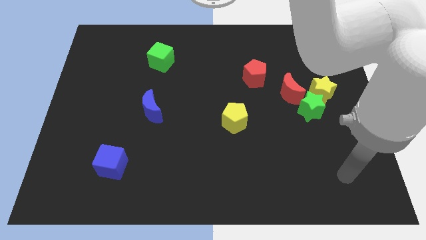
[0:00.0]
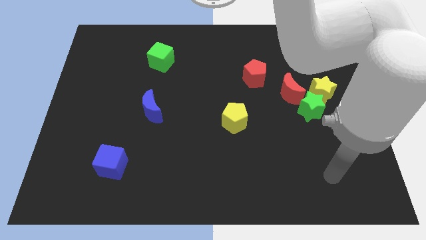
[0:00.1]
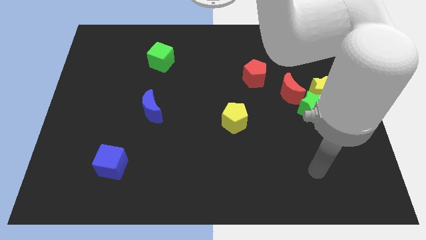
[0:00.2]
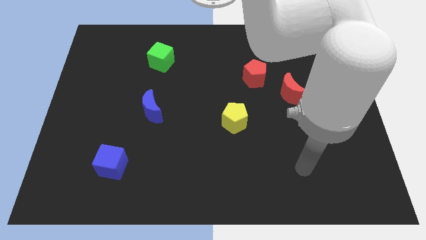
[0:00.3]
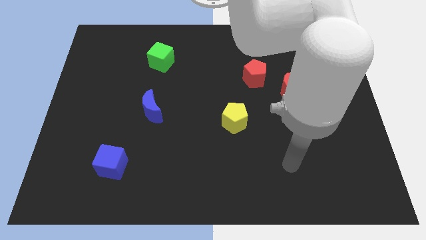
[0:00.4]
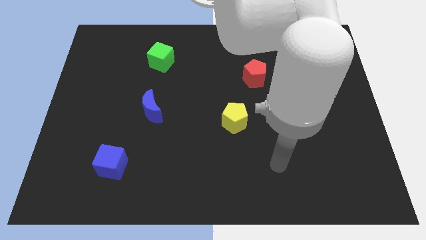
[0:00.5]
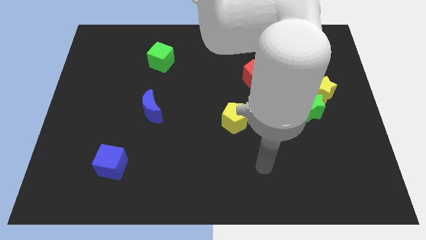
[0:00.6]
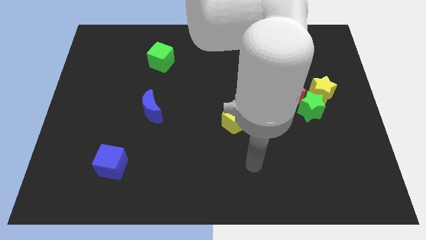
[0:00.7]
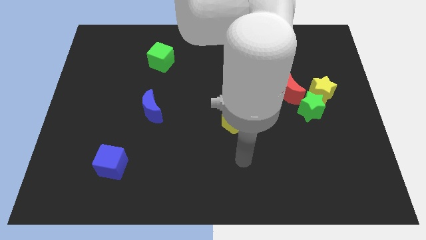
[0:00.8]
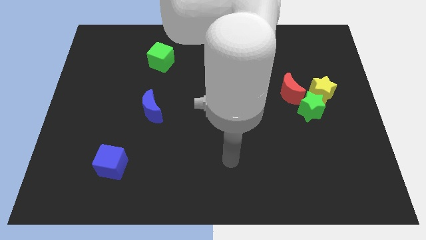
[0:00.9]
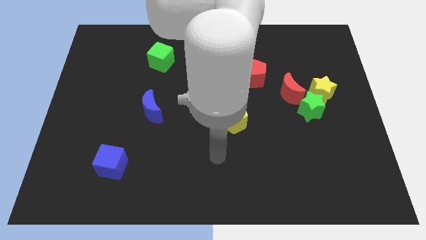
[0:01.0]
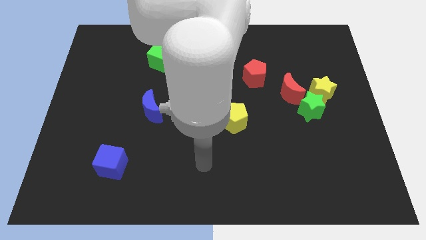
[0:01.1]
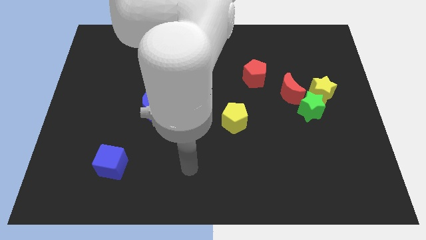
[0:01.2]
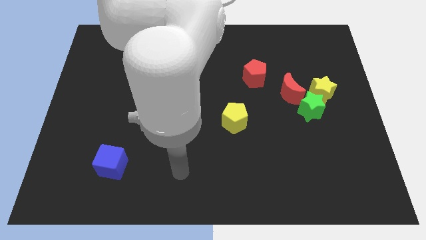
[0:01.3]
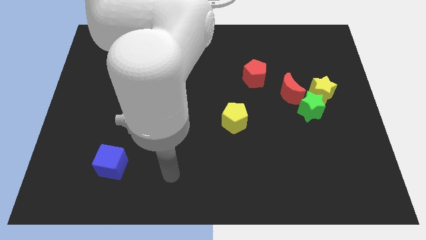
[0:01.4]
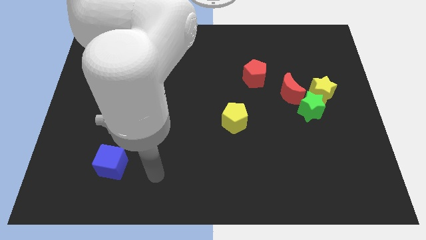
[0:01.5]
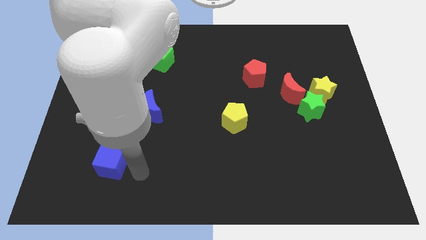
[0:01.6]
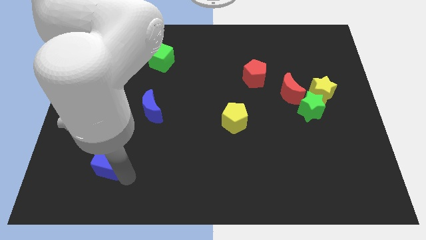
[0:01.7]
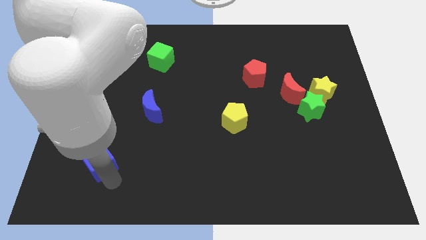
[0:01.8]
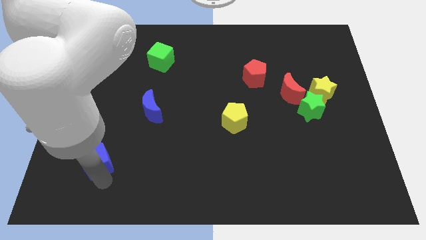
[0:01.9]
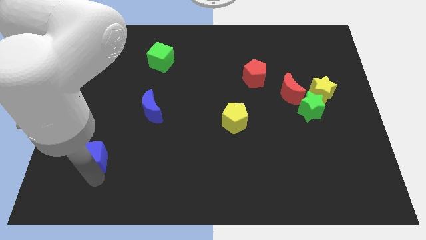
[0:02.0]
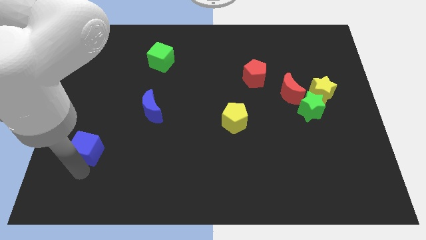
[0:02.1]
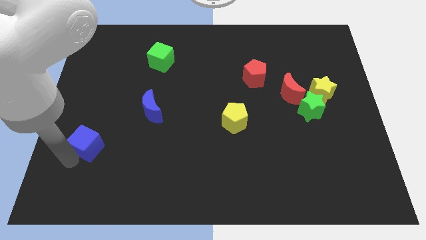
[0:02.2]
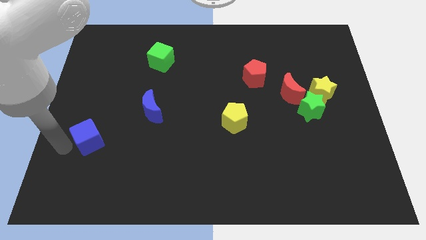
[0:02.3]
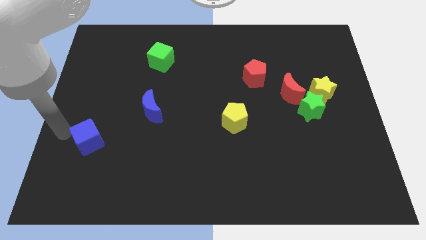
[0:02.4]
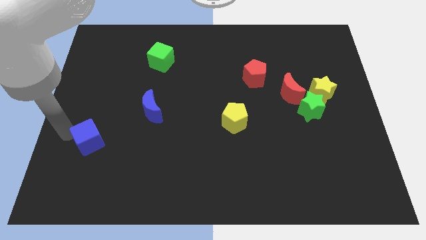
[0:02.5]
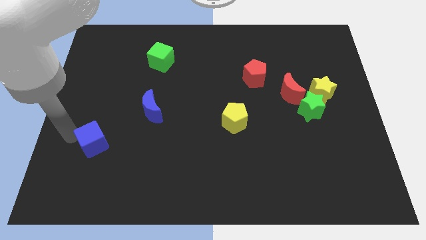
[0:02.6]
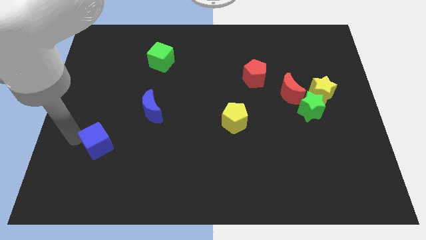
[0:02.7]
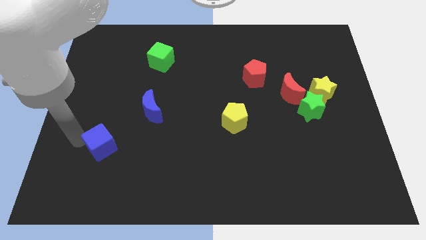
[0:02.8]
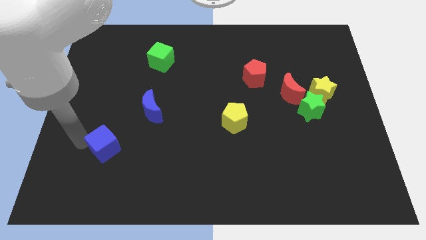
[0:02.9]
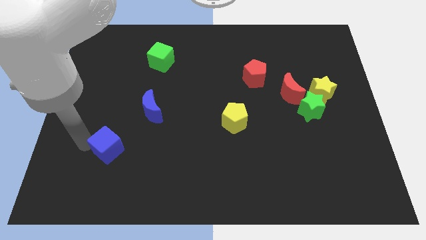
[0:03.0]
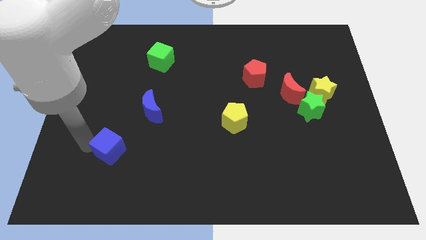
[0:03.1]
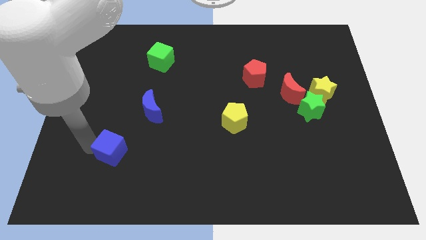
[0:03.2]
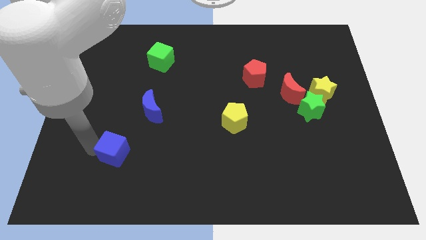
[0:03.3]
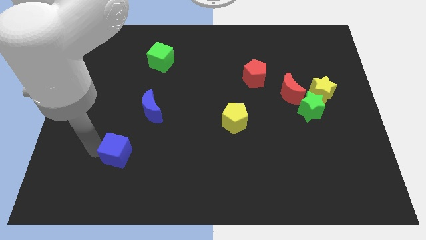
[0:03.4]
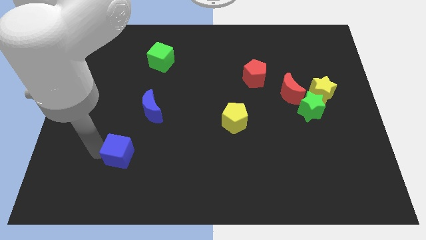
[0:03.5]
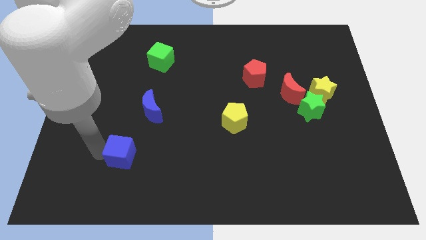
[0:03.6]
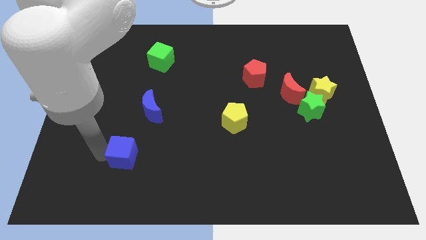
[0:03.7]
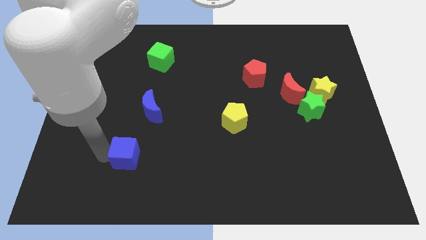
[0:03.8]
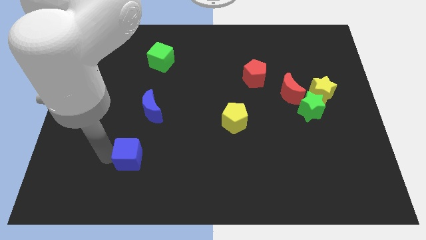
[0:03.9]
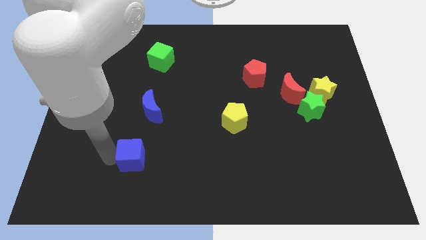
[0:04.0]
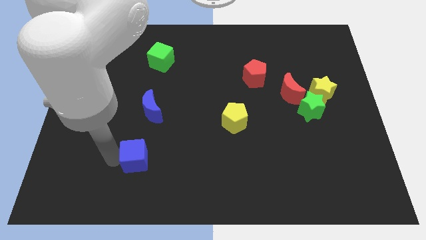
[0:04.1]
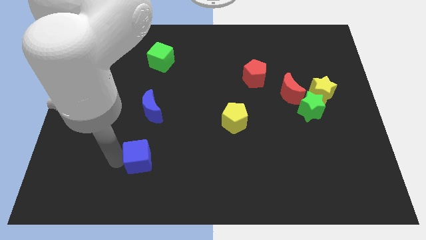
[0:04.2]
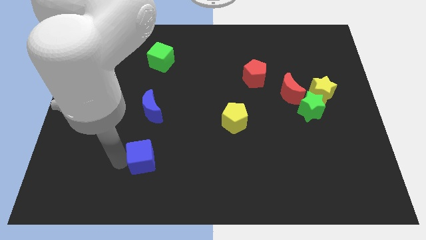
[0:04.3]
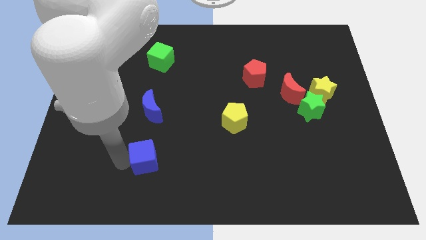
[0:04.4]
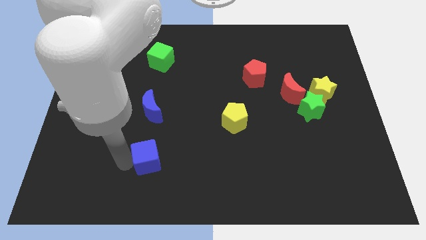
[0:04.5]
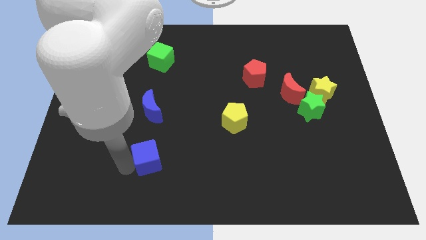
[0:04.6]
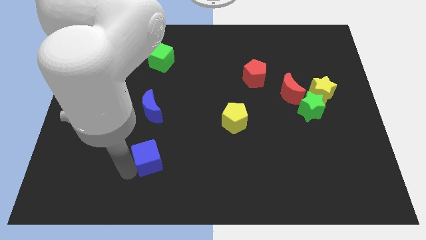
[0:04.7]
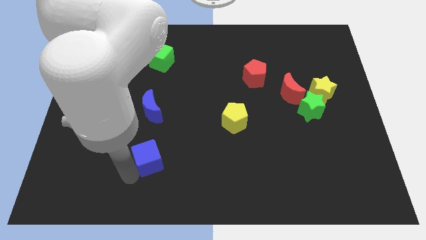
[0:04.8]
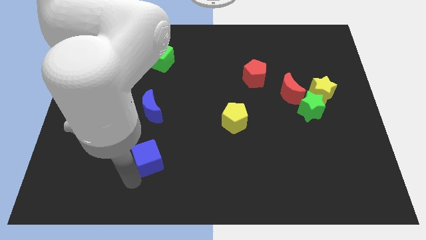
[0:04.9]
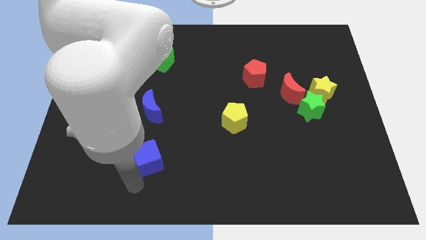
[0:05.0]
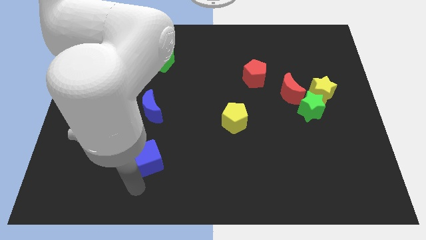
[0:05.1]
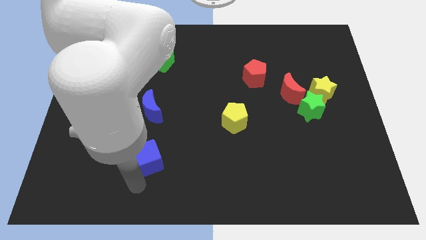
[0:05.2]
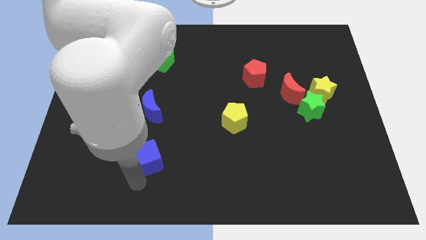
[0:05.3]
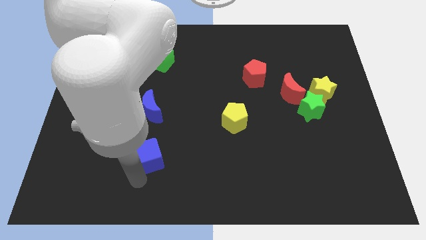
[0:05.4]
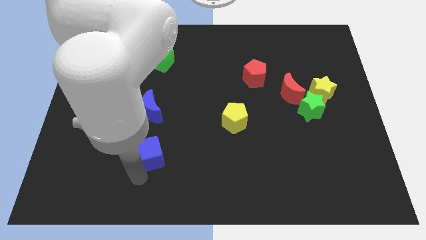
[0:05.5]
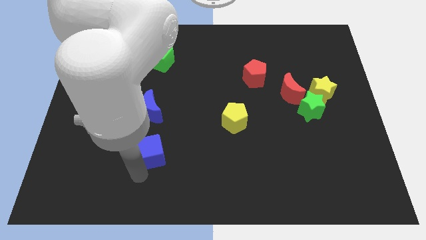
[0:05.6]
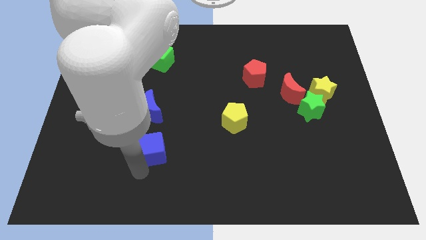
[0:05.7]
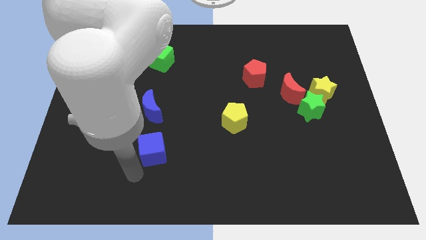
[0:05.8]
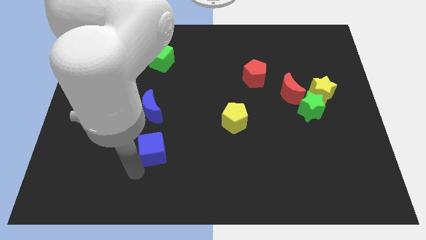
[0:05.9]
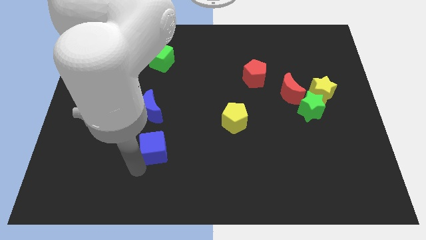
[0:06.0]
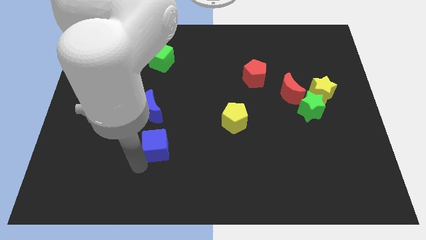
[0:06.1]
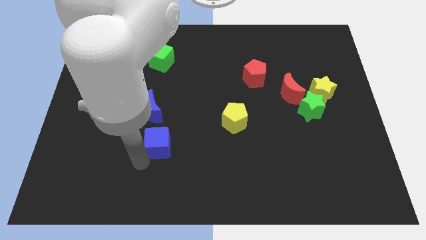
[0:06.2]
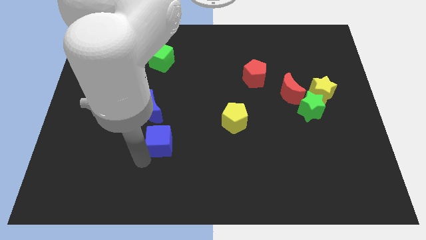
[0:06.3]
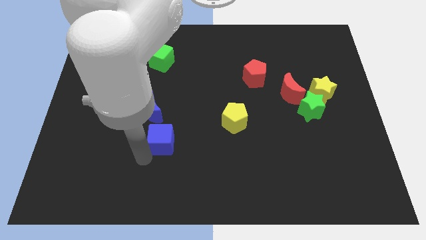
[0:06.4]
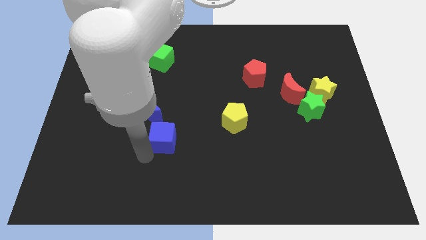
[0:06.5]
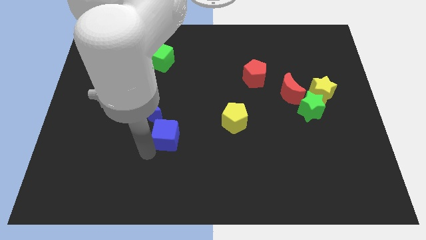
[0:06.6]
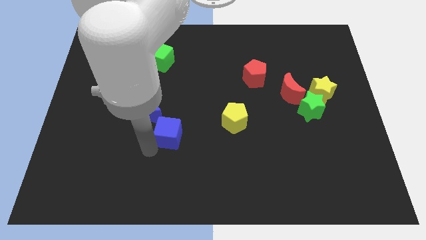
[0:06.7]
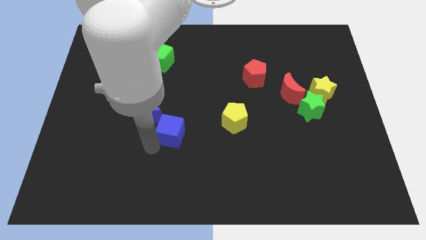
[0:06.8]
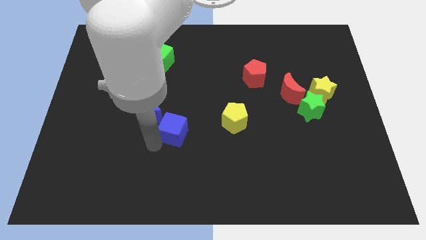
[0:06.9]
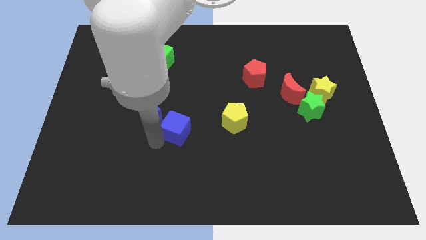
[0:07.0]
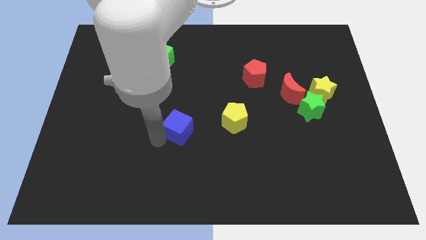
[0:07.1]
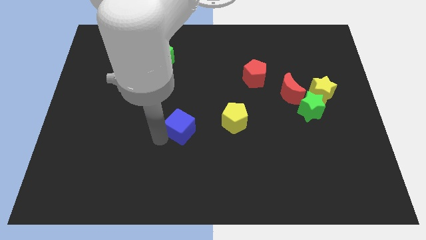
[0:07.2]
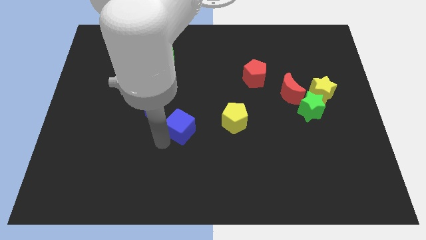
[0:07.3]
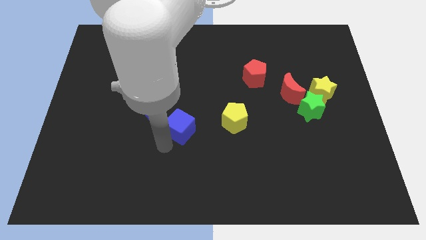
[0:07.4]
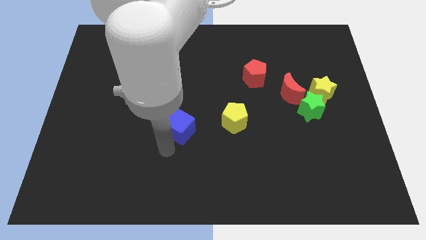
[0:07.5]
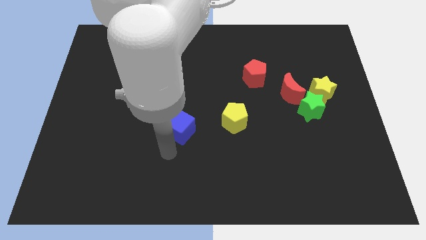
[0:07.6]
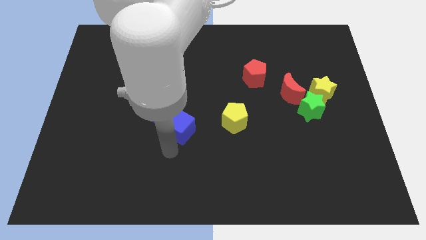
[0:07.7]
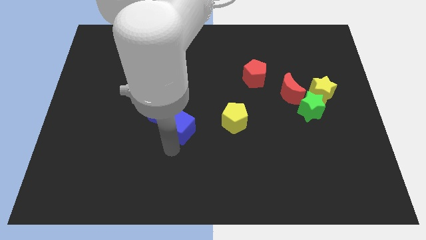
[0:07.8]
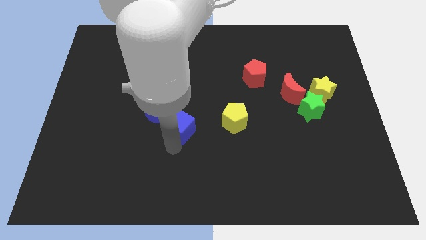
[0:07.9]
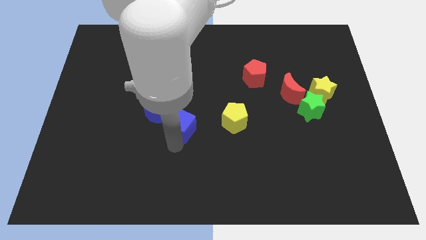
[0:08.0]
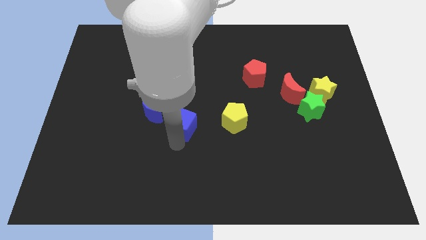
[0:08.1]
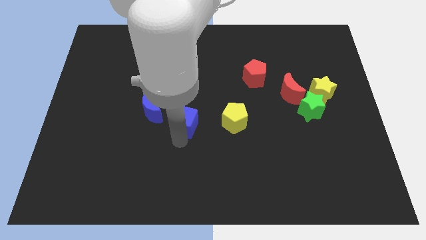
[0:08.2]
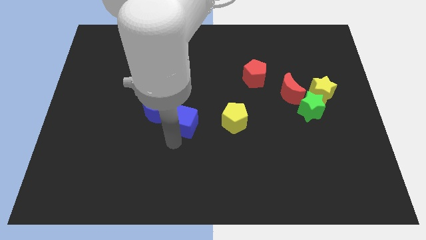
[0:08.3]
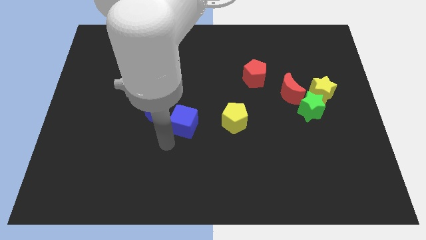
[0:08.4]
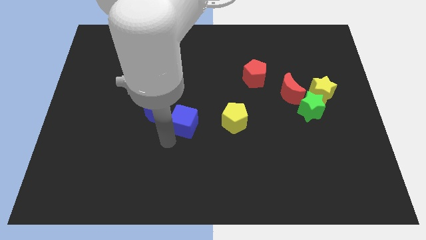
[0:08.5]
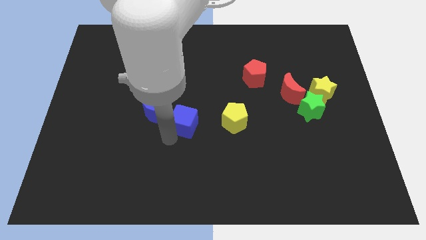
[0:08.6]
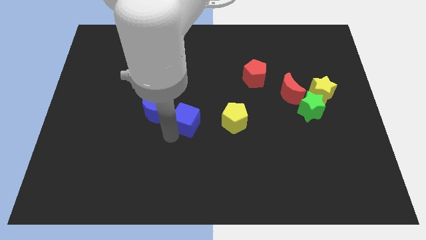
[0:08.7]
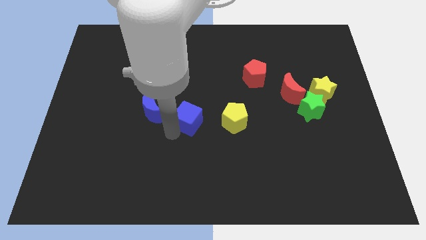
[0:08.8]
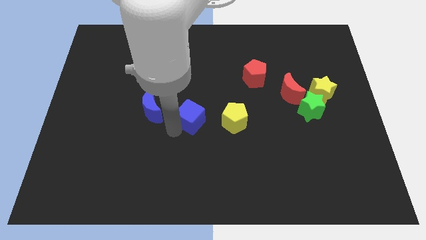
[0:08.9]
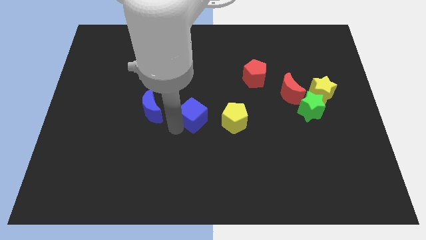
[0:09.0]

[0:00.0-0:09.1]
push the blue cube diagonally up and to the right
